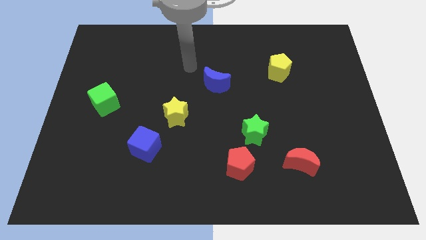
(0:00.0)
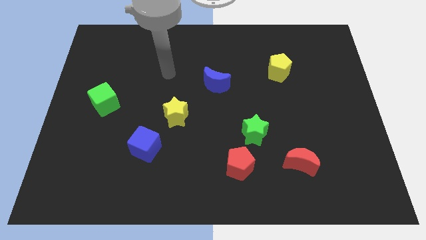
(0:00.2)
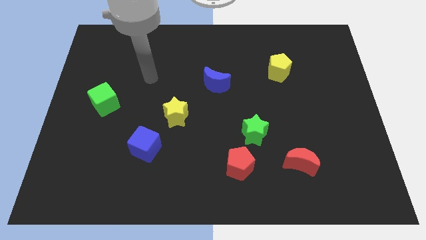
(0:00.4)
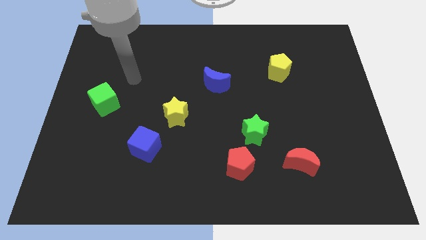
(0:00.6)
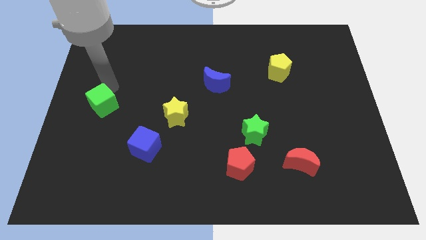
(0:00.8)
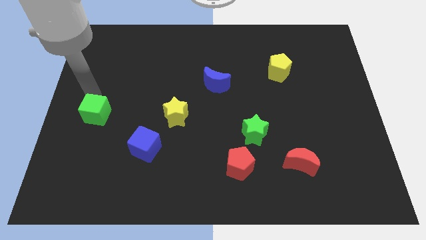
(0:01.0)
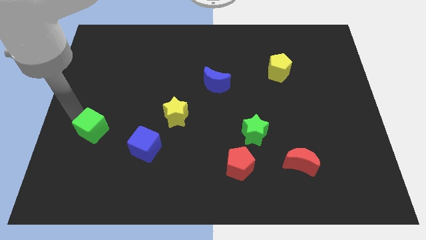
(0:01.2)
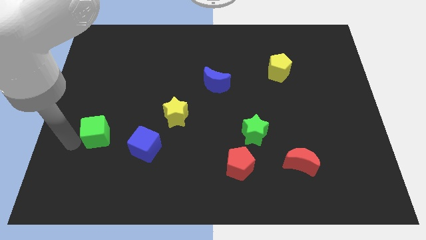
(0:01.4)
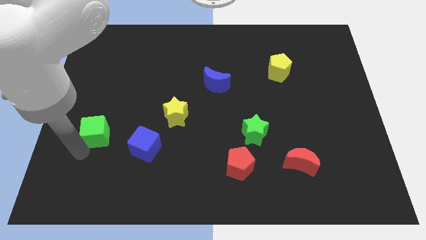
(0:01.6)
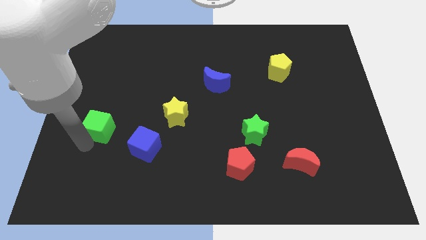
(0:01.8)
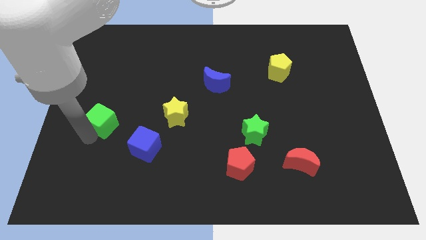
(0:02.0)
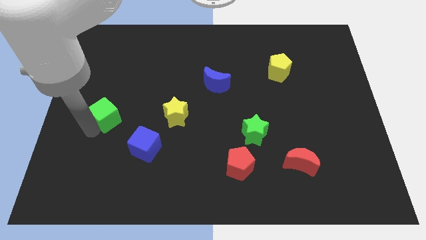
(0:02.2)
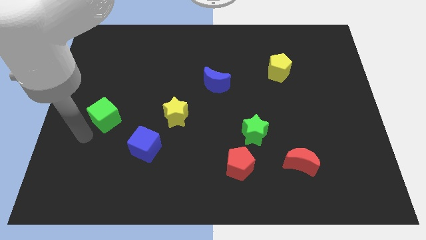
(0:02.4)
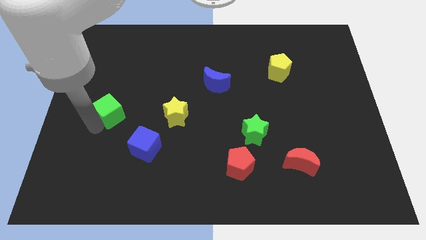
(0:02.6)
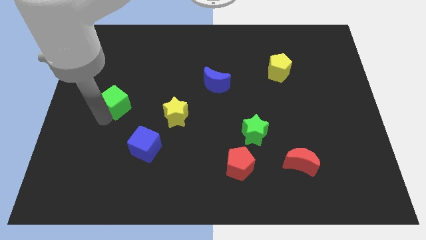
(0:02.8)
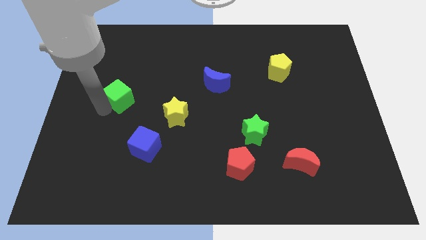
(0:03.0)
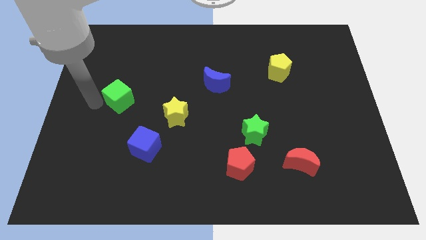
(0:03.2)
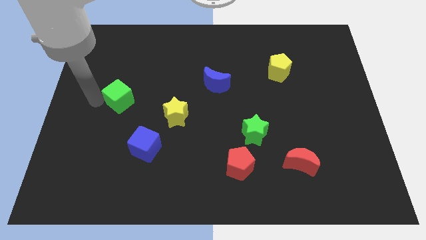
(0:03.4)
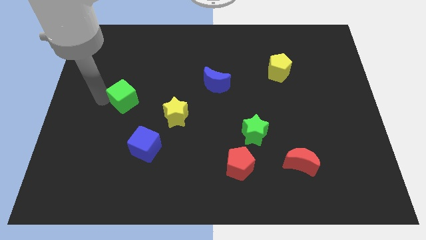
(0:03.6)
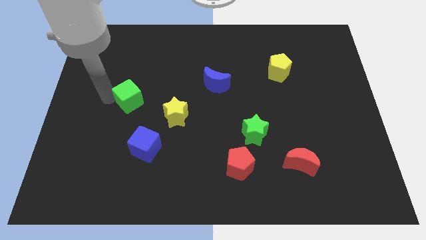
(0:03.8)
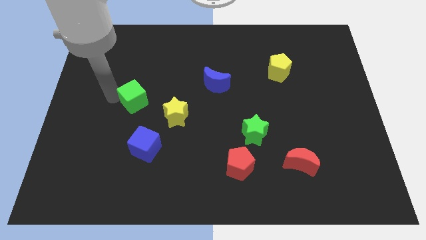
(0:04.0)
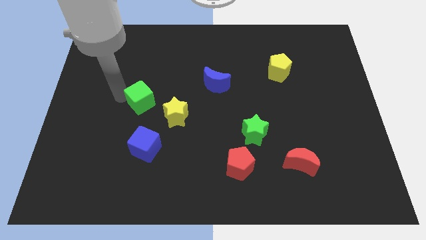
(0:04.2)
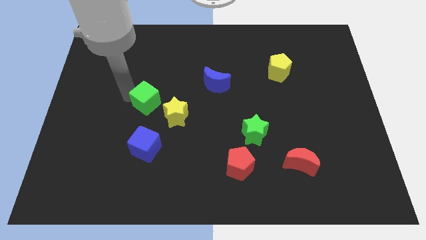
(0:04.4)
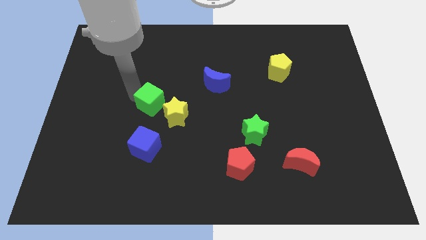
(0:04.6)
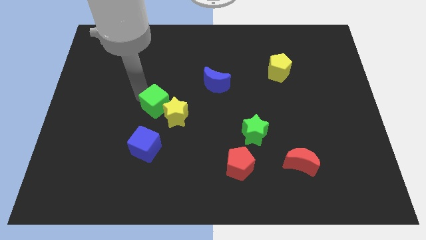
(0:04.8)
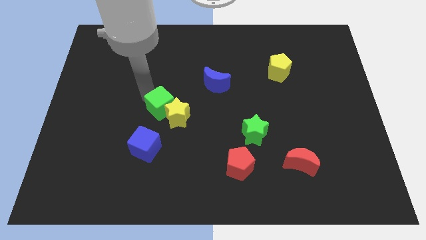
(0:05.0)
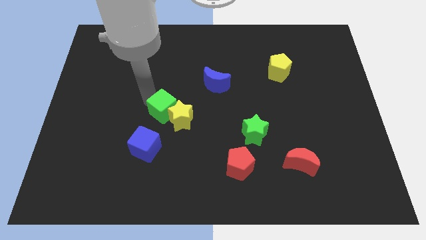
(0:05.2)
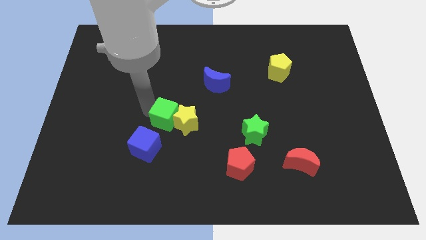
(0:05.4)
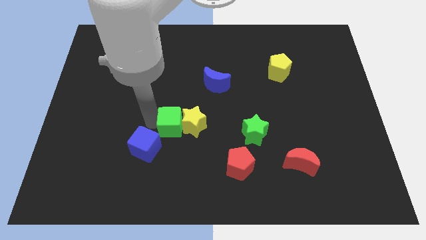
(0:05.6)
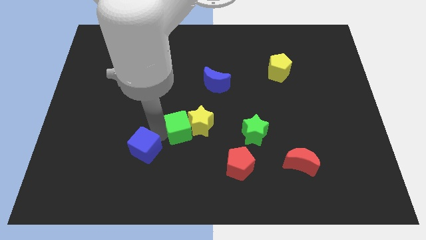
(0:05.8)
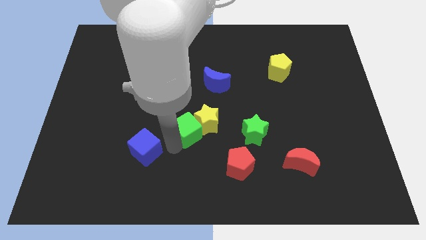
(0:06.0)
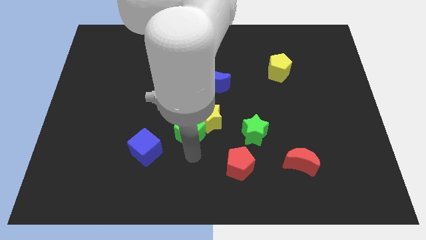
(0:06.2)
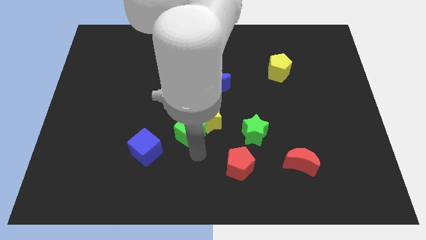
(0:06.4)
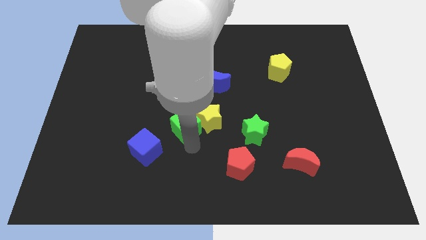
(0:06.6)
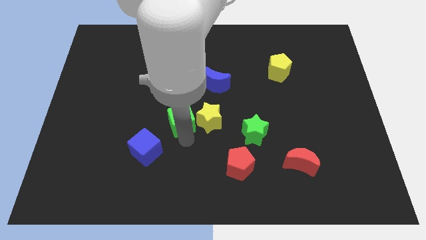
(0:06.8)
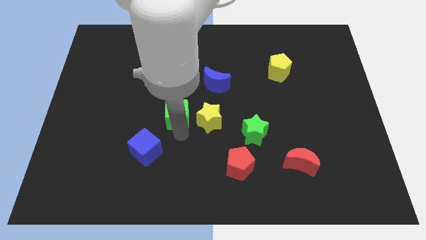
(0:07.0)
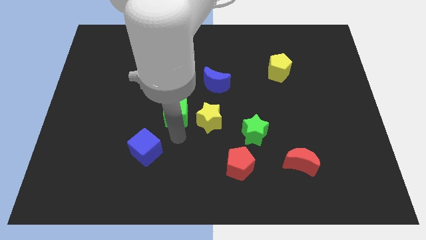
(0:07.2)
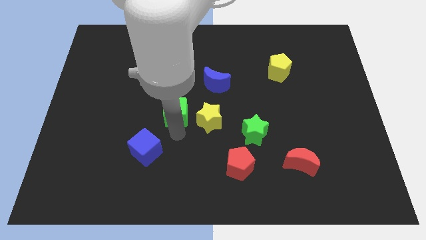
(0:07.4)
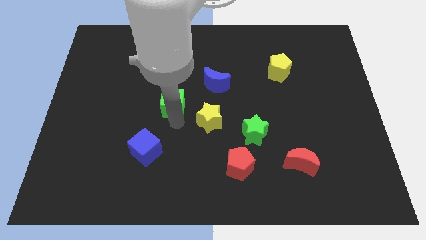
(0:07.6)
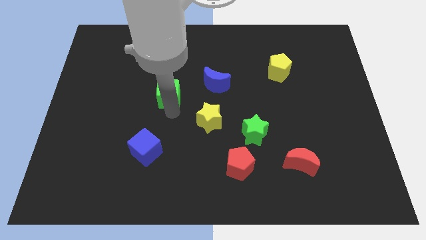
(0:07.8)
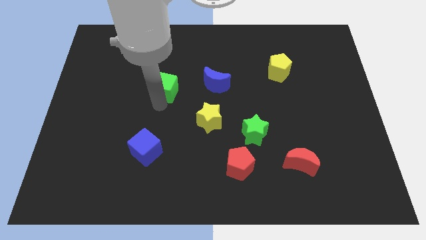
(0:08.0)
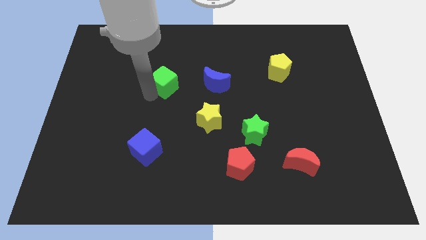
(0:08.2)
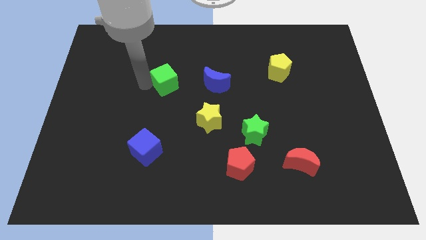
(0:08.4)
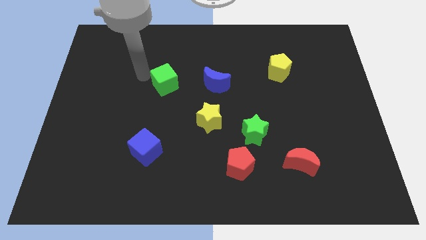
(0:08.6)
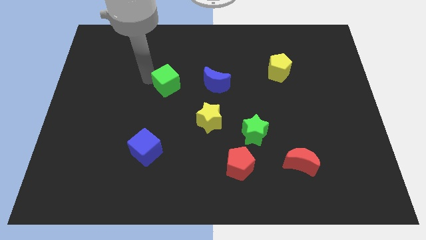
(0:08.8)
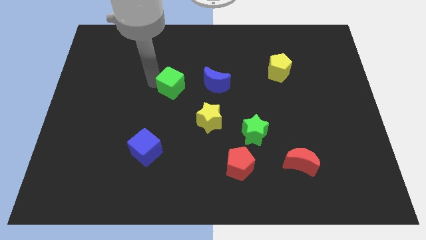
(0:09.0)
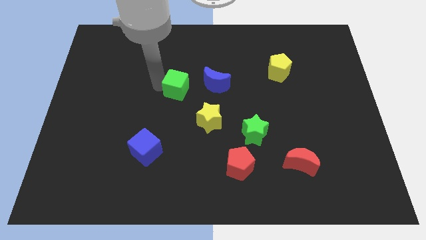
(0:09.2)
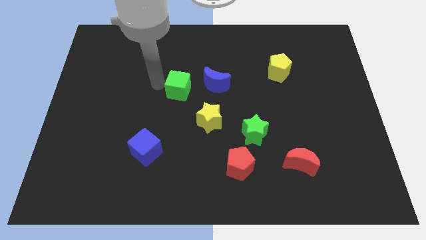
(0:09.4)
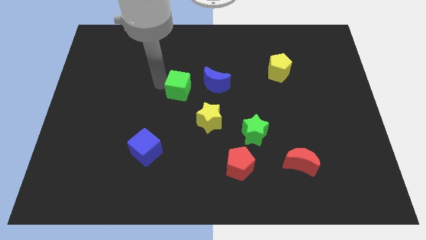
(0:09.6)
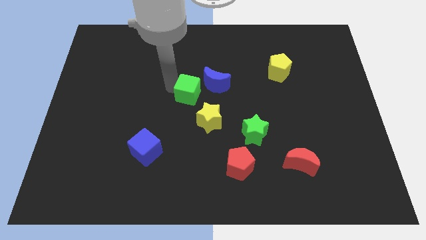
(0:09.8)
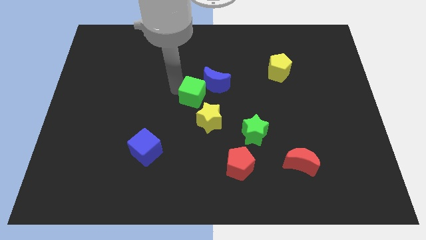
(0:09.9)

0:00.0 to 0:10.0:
push the green cube to the right

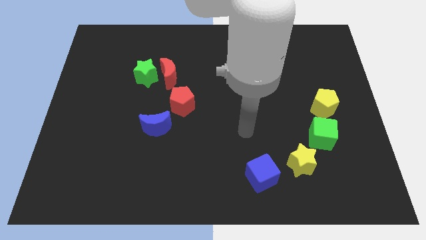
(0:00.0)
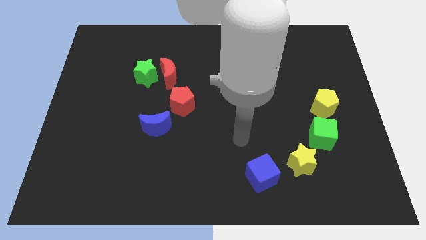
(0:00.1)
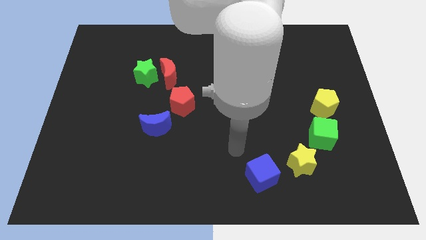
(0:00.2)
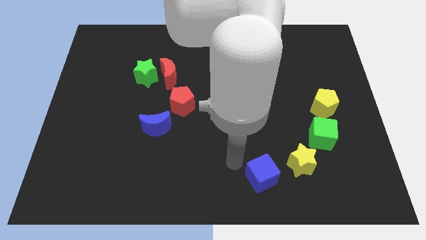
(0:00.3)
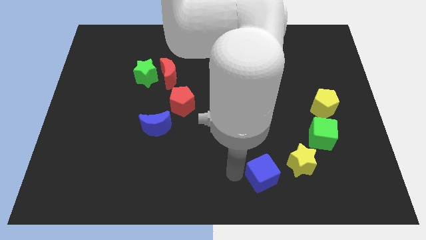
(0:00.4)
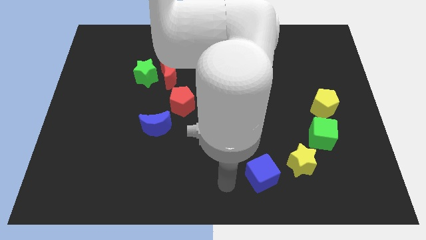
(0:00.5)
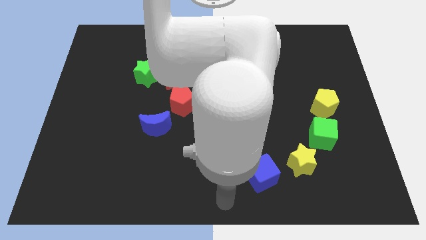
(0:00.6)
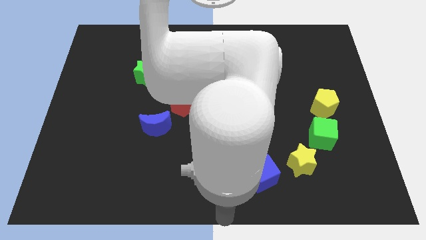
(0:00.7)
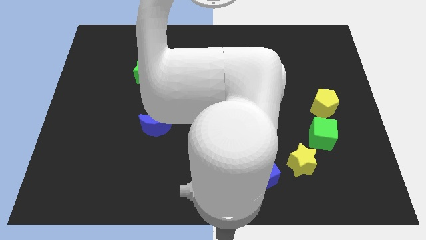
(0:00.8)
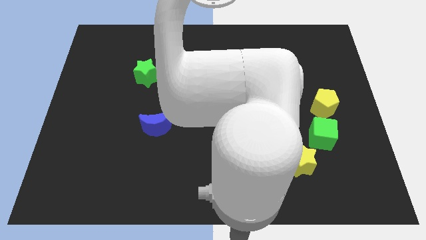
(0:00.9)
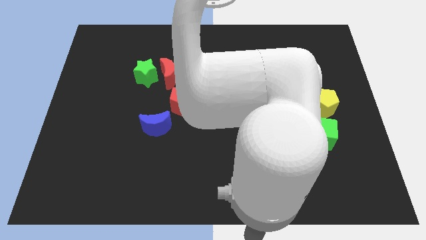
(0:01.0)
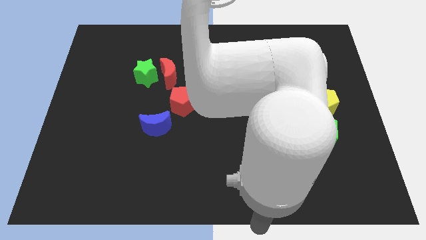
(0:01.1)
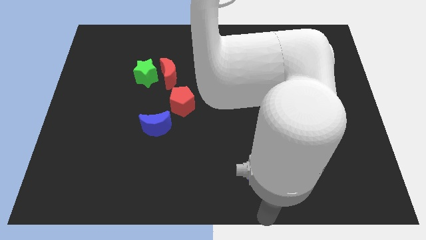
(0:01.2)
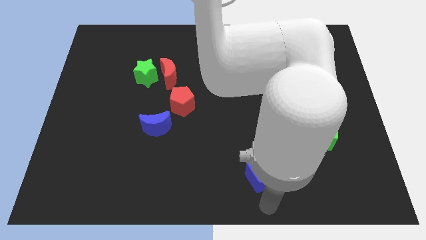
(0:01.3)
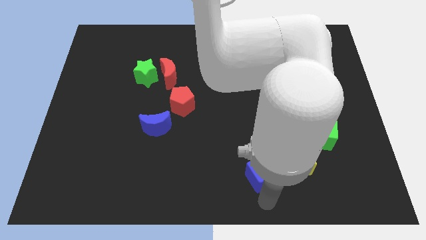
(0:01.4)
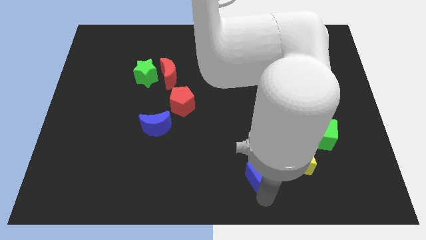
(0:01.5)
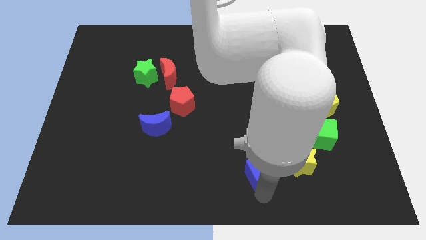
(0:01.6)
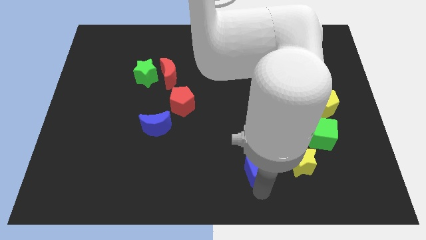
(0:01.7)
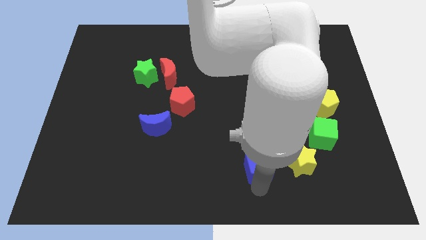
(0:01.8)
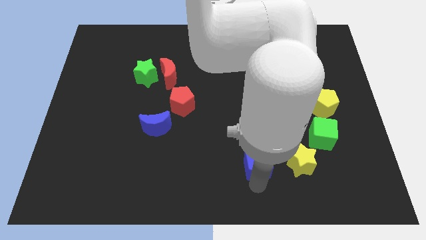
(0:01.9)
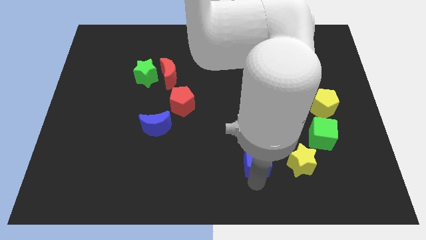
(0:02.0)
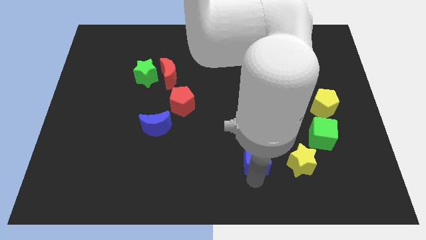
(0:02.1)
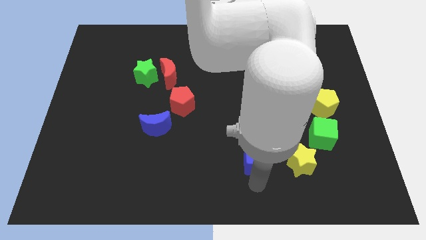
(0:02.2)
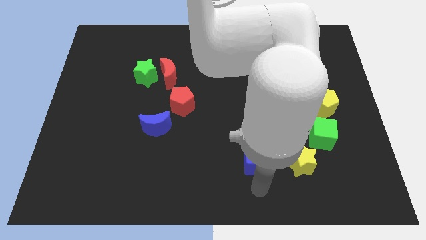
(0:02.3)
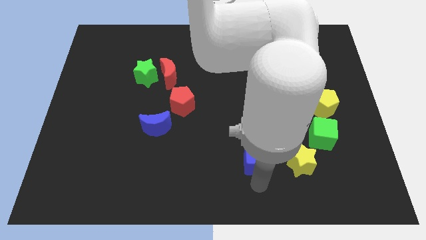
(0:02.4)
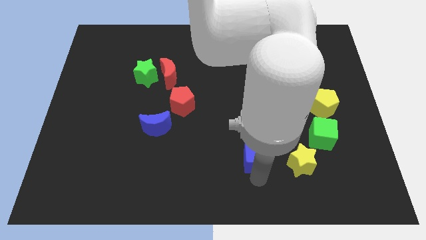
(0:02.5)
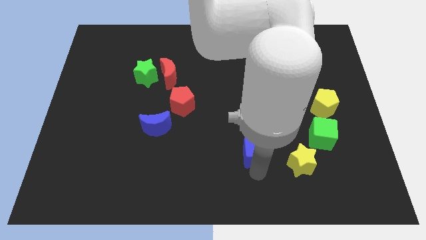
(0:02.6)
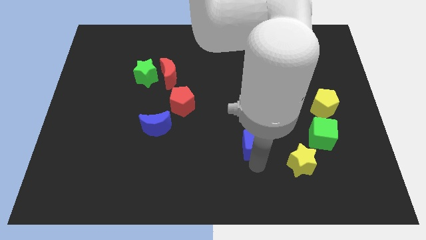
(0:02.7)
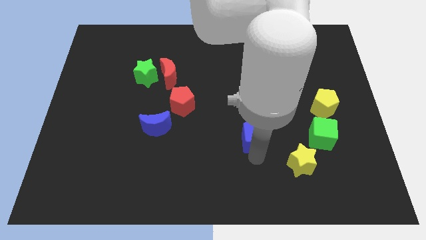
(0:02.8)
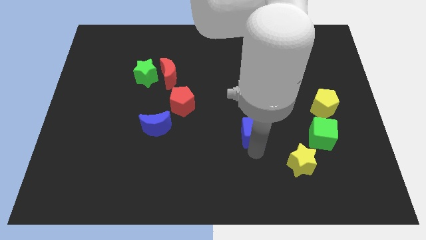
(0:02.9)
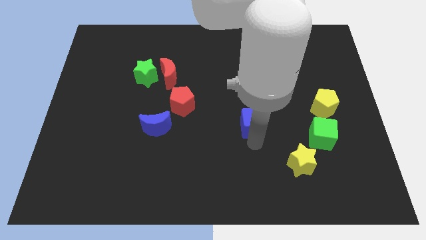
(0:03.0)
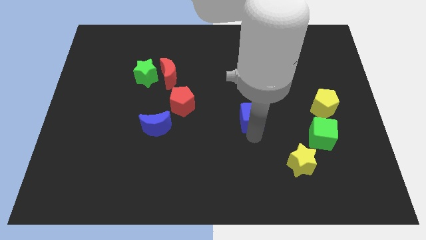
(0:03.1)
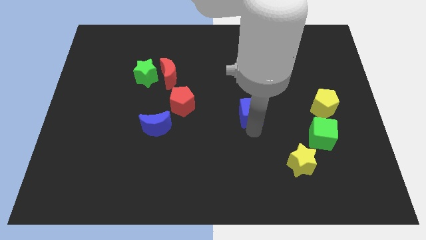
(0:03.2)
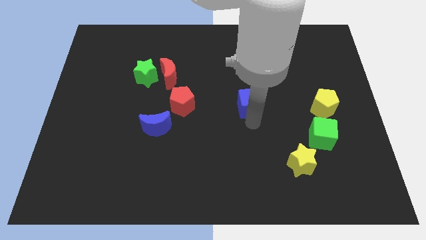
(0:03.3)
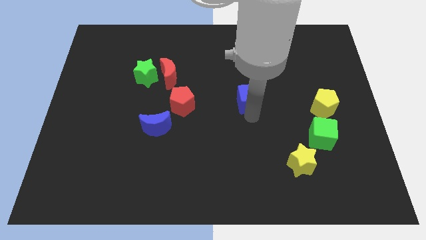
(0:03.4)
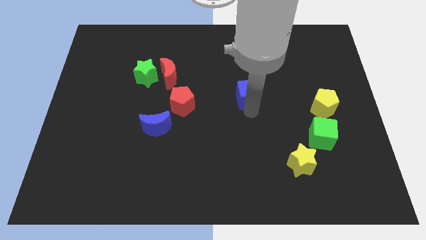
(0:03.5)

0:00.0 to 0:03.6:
move the blue cube up
